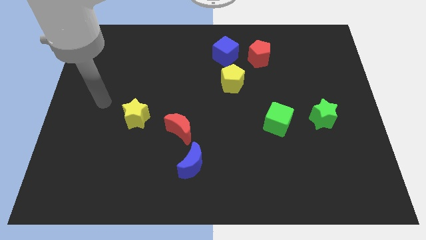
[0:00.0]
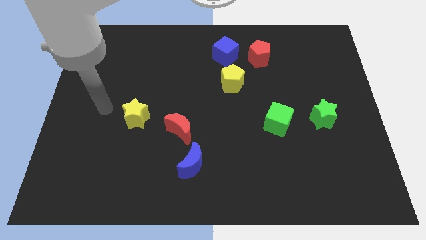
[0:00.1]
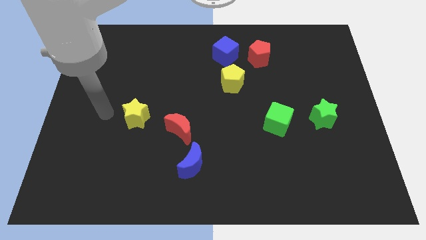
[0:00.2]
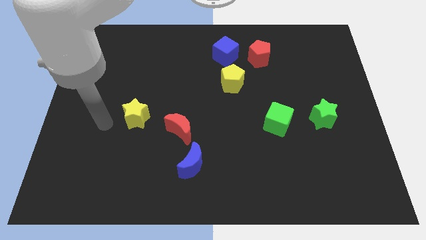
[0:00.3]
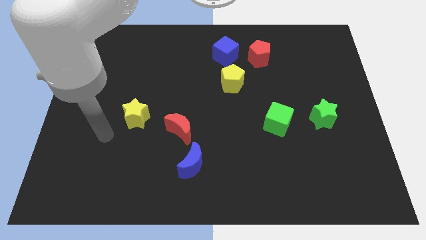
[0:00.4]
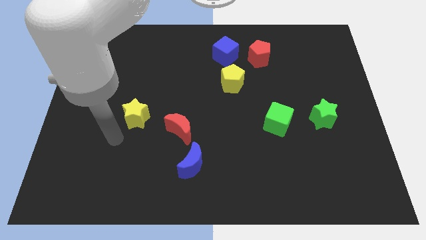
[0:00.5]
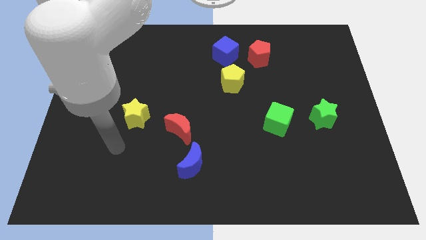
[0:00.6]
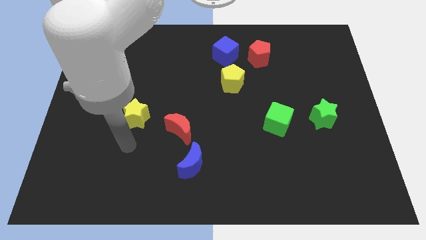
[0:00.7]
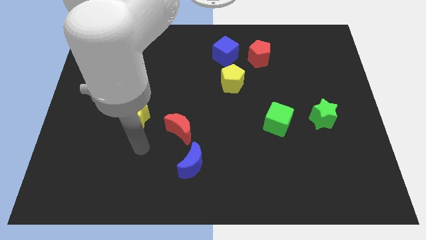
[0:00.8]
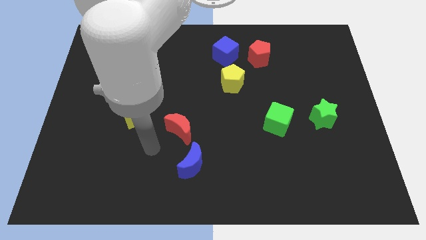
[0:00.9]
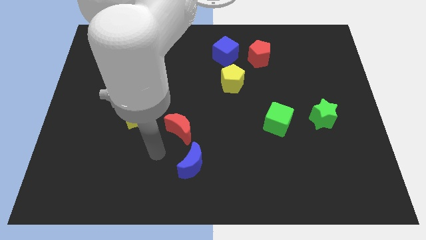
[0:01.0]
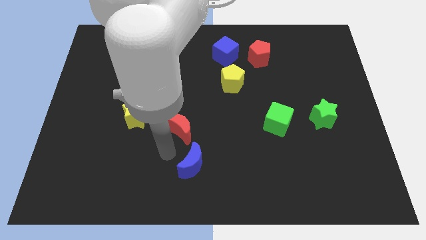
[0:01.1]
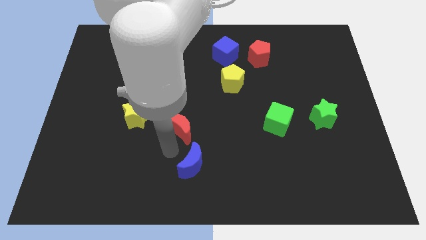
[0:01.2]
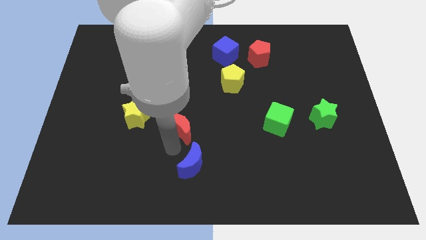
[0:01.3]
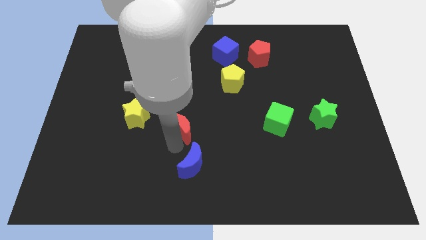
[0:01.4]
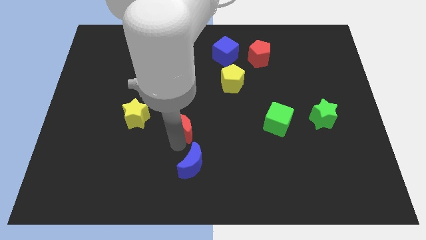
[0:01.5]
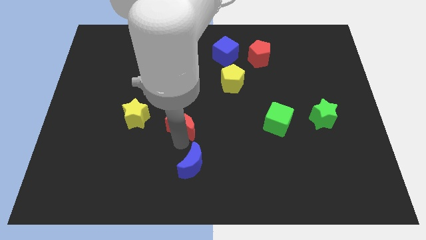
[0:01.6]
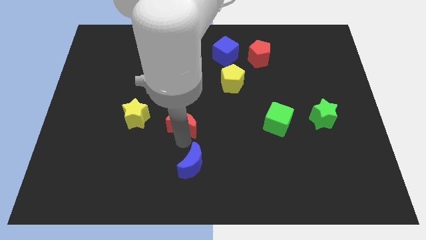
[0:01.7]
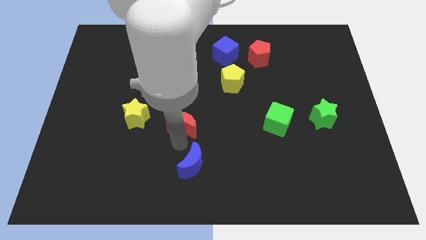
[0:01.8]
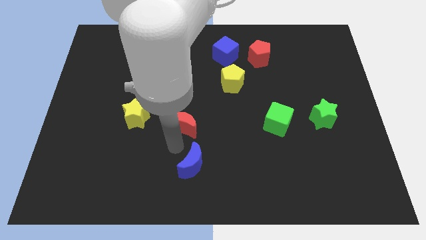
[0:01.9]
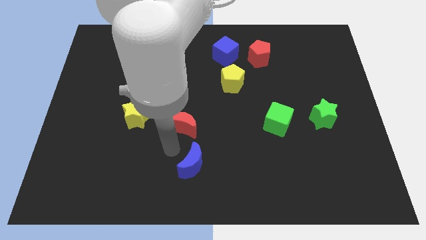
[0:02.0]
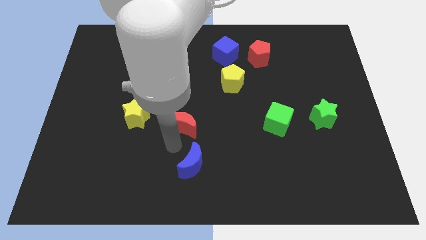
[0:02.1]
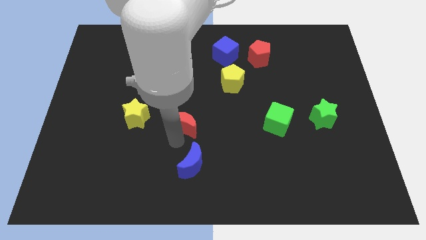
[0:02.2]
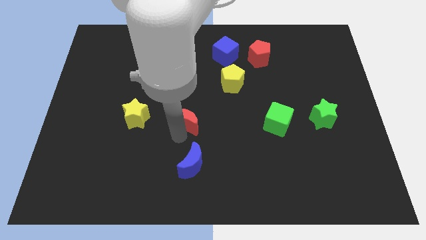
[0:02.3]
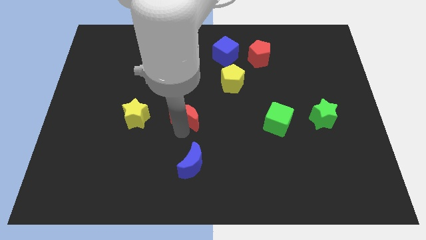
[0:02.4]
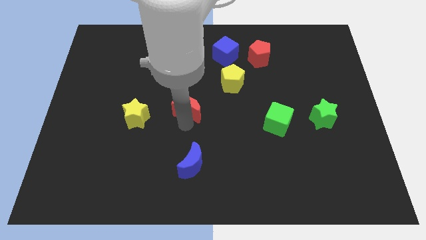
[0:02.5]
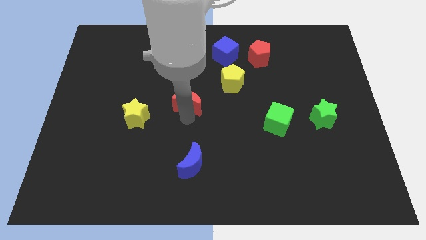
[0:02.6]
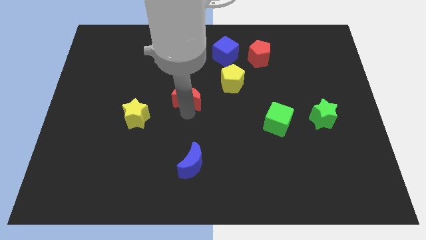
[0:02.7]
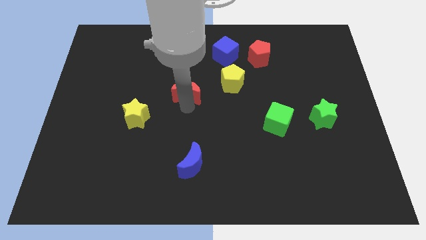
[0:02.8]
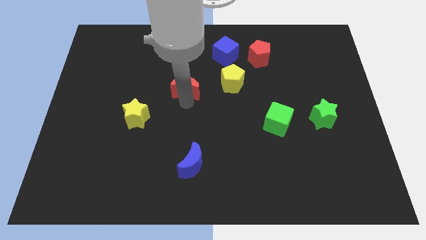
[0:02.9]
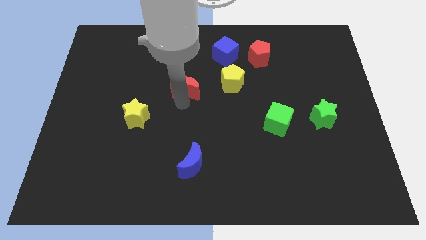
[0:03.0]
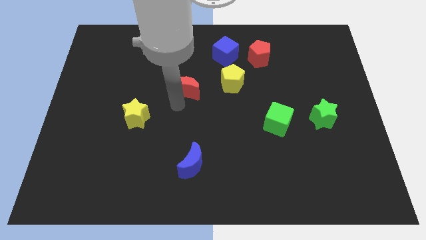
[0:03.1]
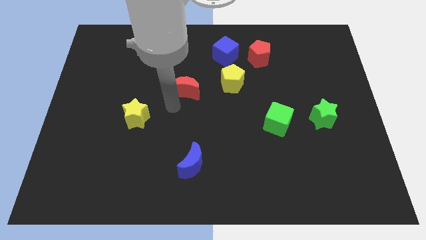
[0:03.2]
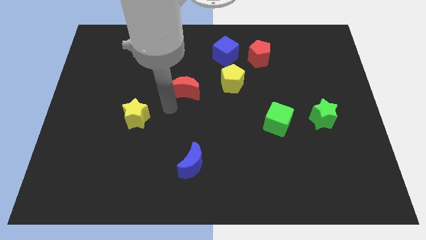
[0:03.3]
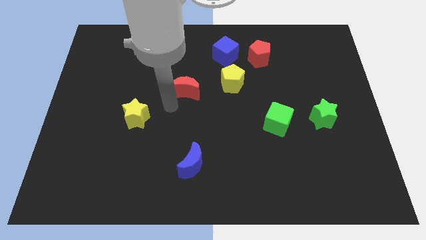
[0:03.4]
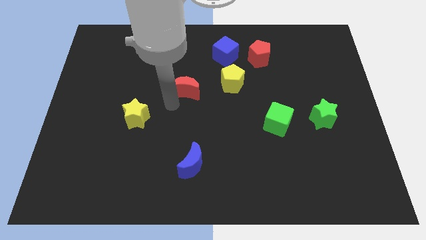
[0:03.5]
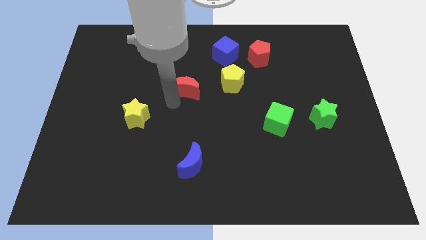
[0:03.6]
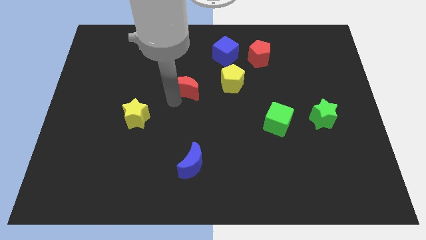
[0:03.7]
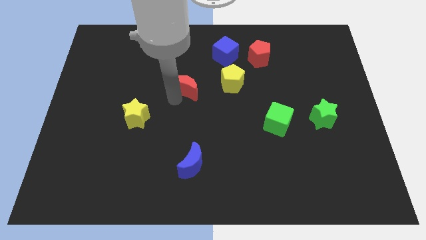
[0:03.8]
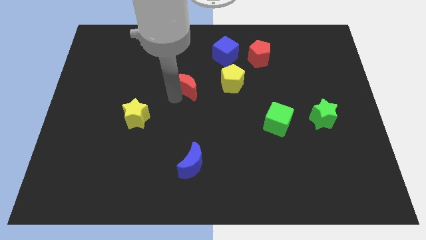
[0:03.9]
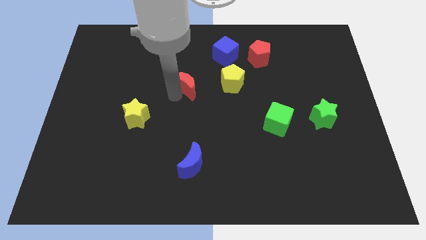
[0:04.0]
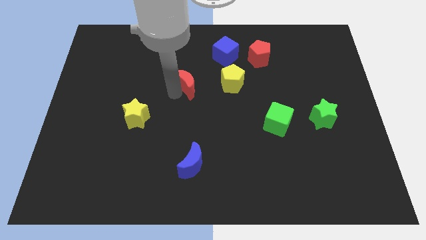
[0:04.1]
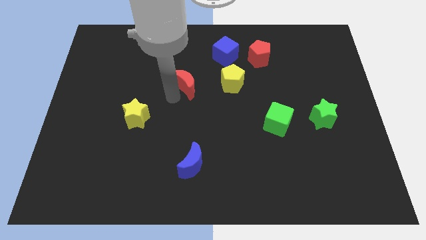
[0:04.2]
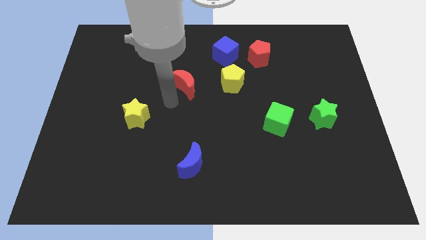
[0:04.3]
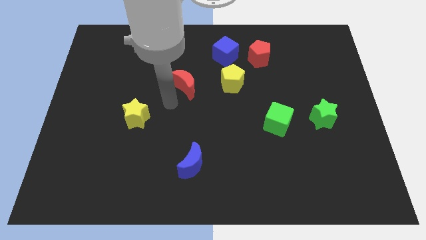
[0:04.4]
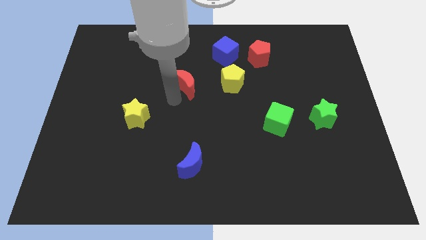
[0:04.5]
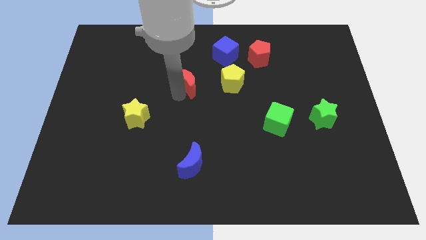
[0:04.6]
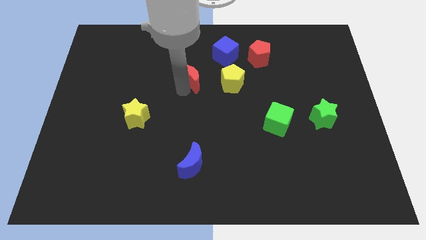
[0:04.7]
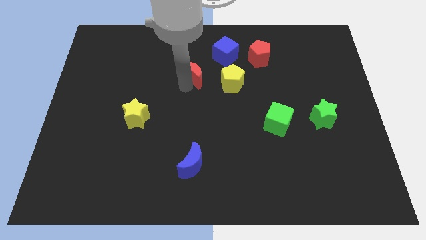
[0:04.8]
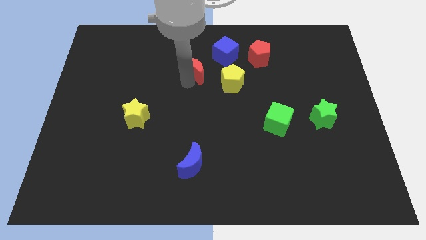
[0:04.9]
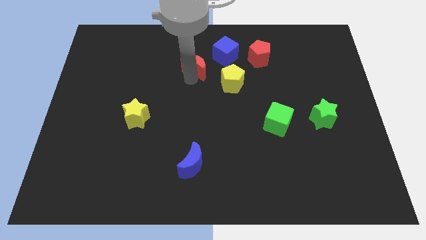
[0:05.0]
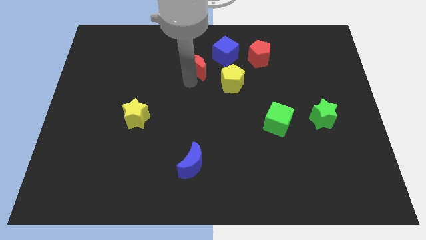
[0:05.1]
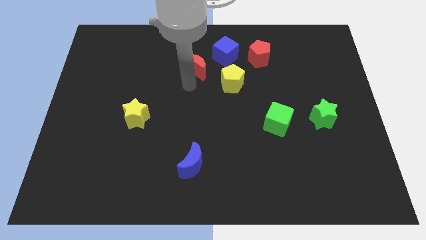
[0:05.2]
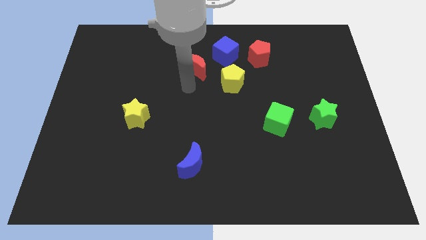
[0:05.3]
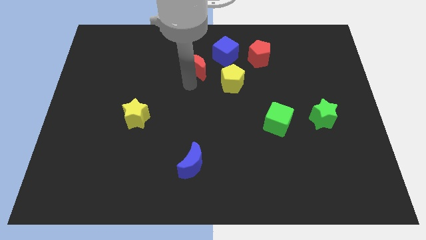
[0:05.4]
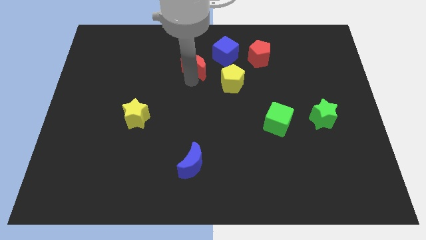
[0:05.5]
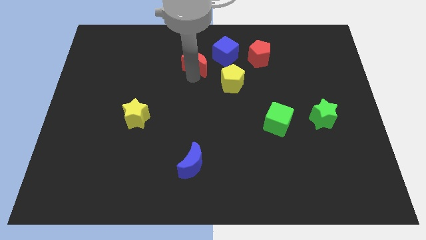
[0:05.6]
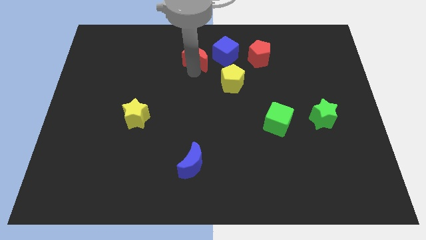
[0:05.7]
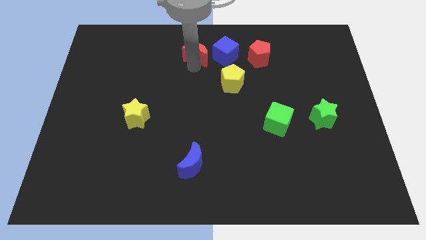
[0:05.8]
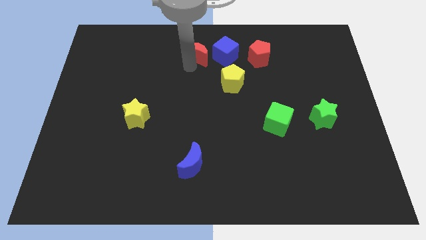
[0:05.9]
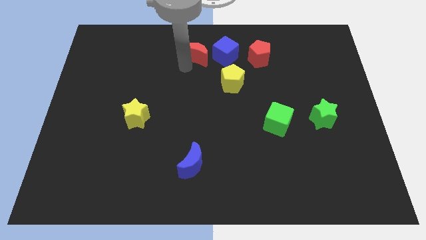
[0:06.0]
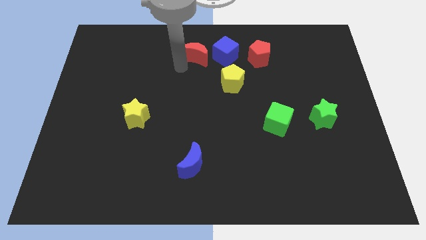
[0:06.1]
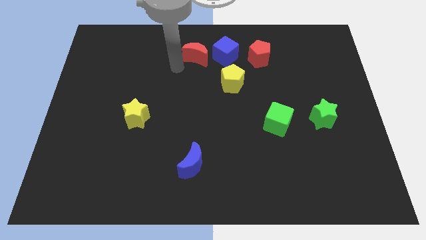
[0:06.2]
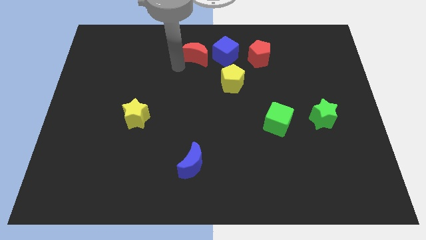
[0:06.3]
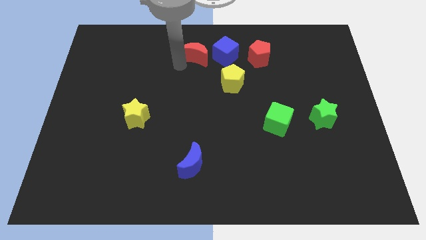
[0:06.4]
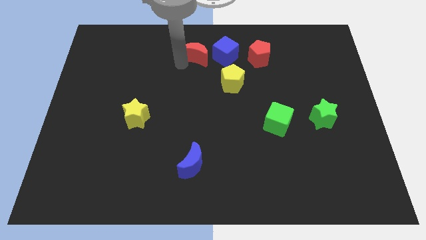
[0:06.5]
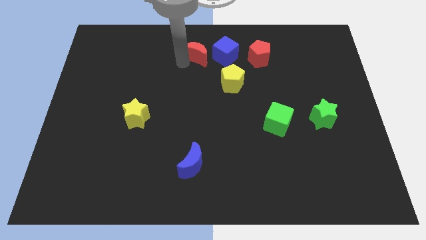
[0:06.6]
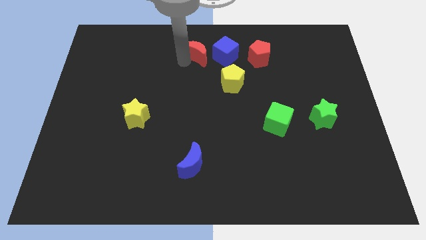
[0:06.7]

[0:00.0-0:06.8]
push the red moon to the top side
